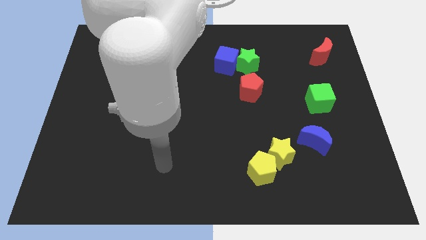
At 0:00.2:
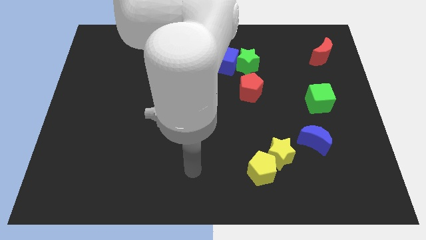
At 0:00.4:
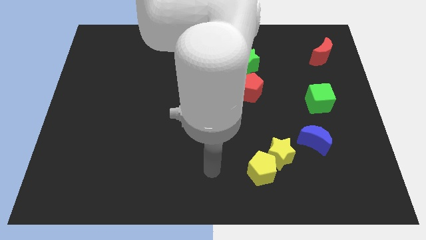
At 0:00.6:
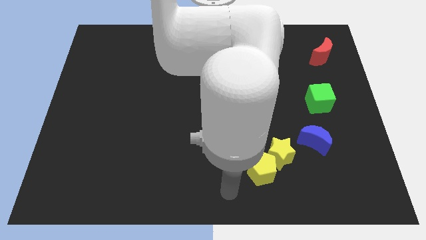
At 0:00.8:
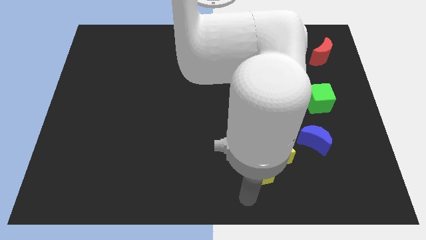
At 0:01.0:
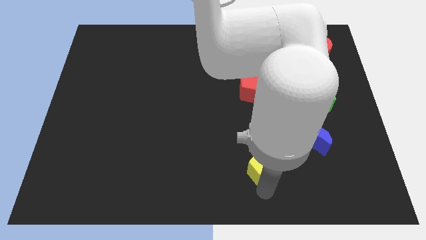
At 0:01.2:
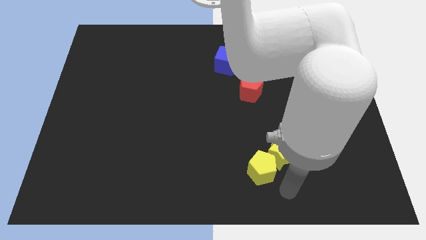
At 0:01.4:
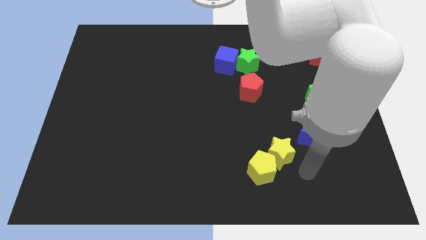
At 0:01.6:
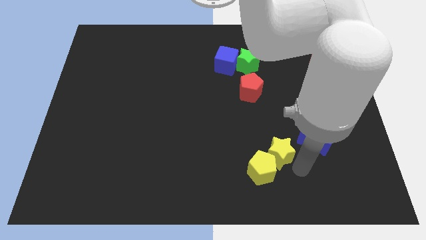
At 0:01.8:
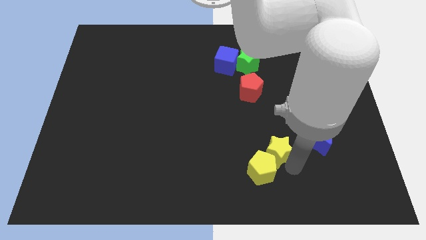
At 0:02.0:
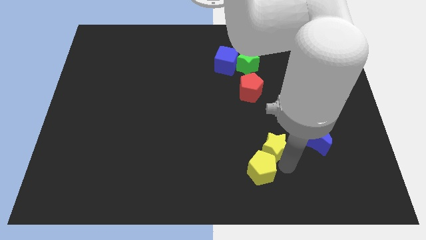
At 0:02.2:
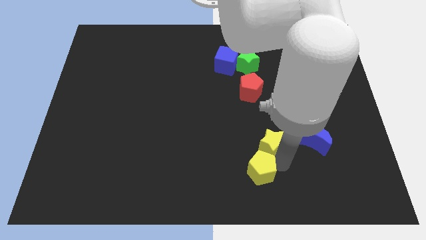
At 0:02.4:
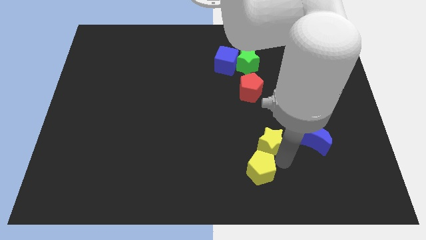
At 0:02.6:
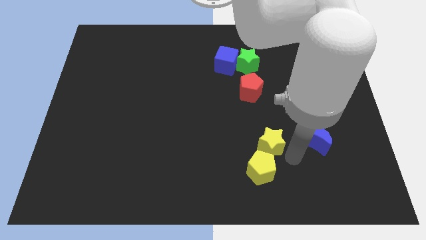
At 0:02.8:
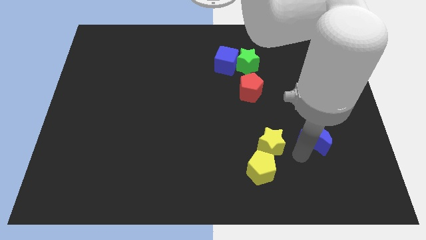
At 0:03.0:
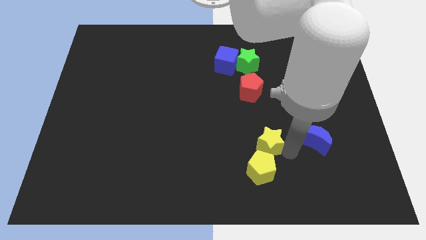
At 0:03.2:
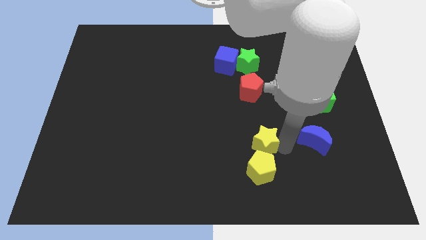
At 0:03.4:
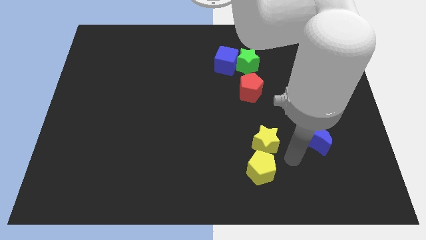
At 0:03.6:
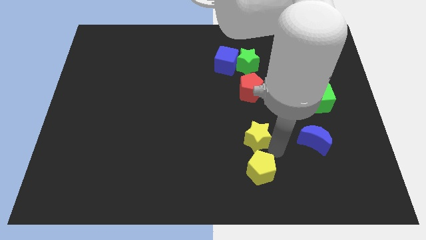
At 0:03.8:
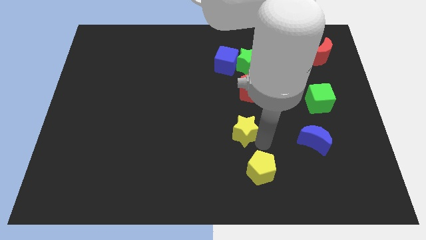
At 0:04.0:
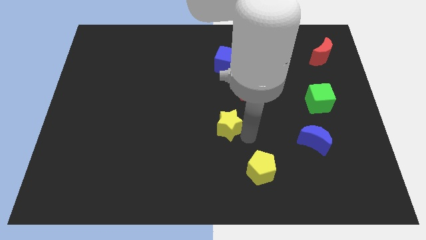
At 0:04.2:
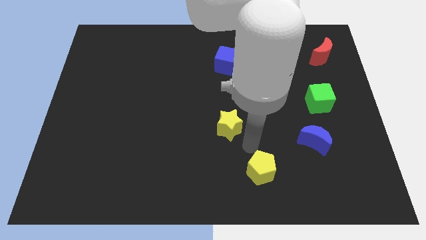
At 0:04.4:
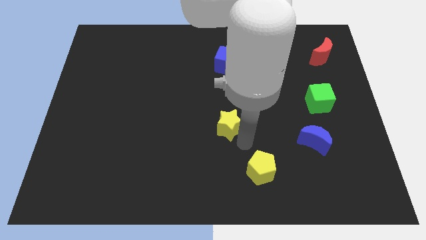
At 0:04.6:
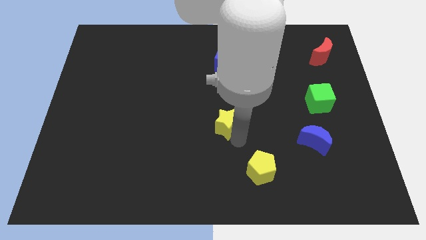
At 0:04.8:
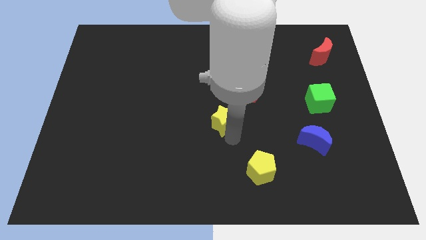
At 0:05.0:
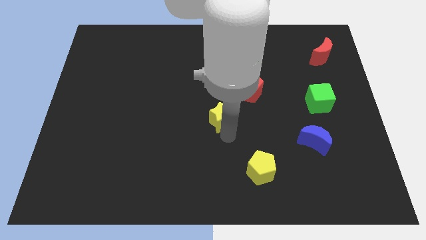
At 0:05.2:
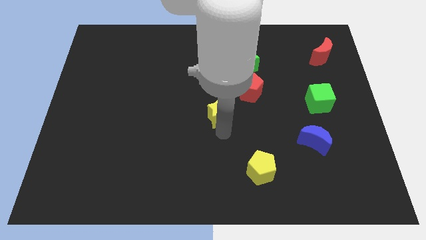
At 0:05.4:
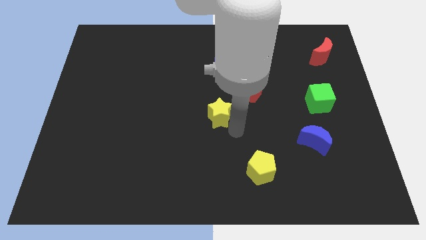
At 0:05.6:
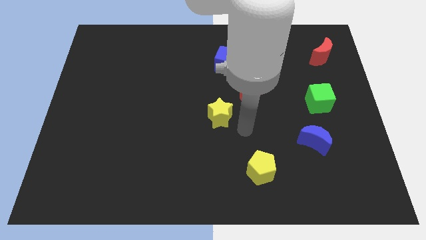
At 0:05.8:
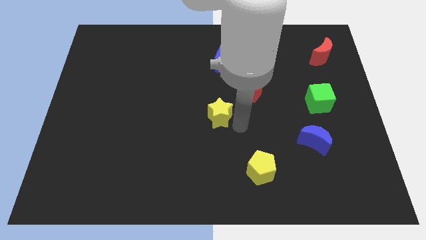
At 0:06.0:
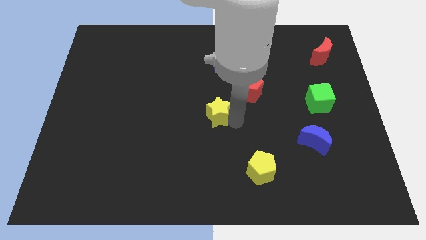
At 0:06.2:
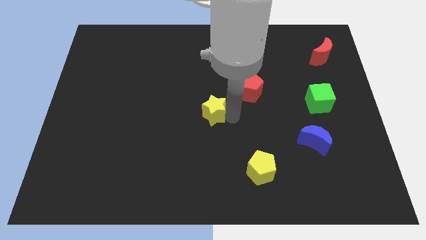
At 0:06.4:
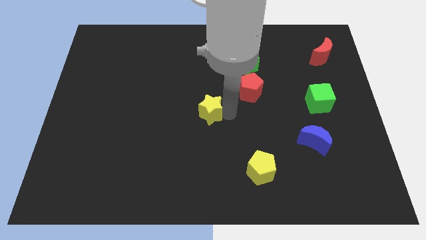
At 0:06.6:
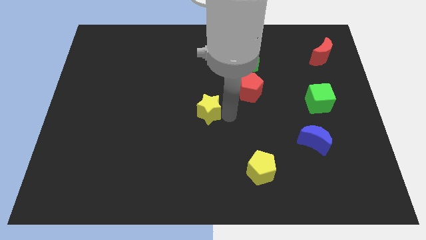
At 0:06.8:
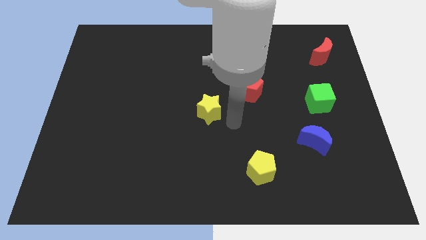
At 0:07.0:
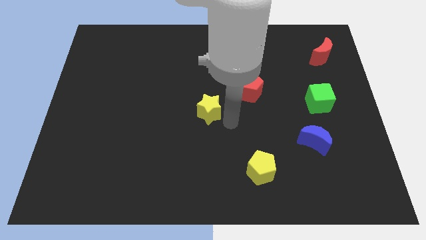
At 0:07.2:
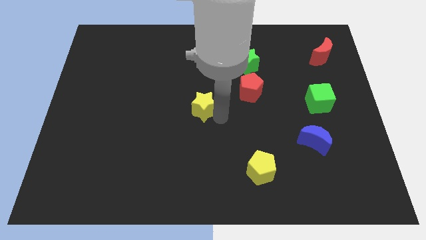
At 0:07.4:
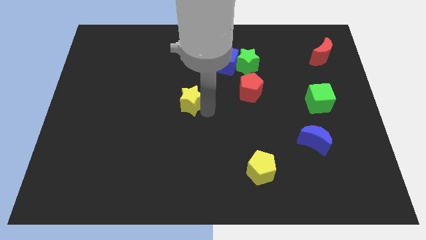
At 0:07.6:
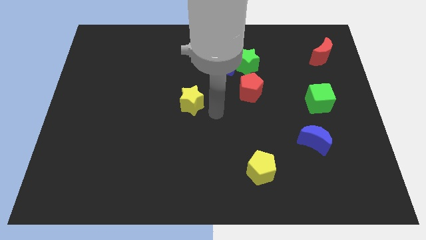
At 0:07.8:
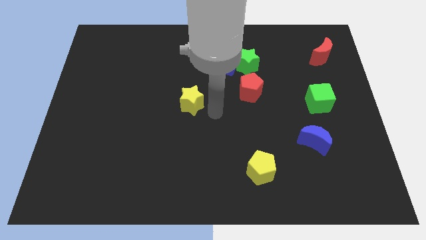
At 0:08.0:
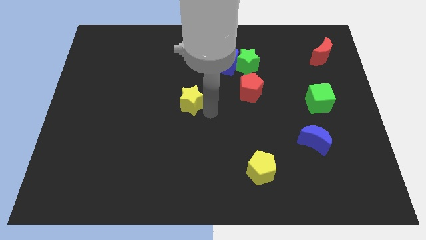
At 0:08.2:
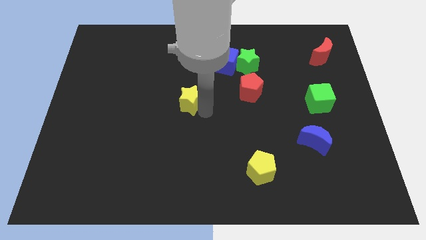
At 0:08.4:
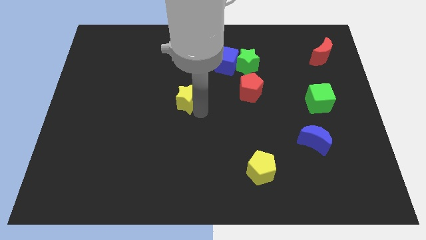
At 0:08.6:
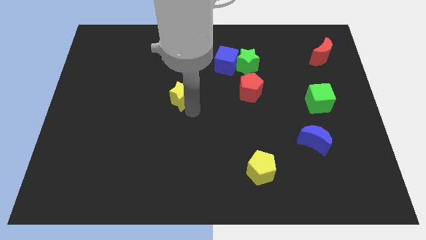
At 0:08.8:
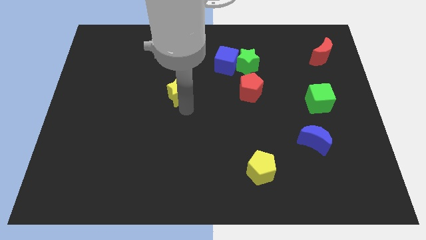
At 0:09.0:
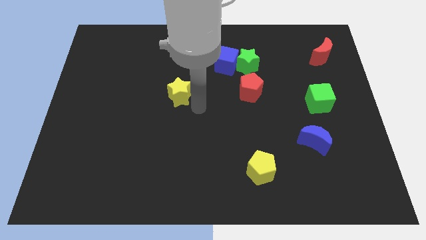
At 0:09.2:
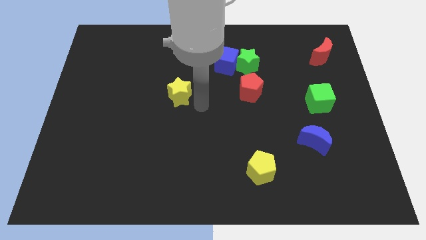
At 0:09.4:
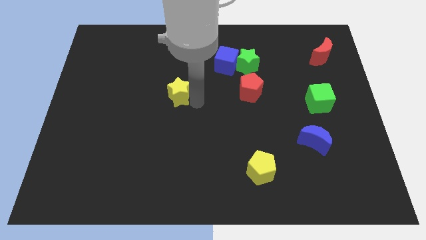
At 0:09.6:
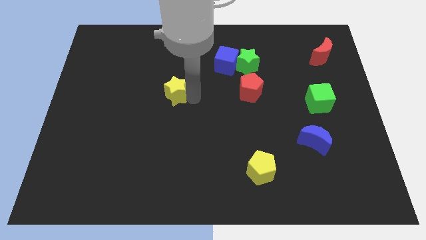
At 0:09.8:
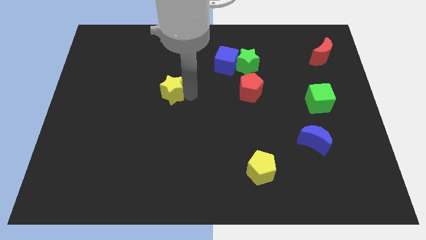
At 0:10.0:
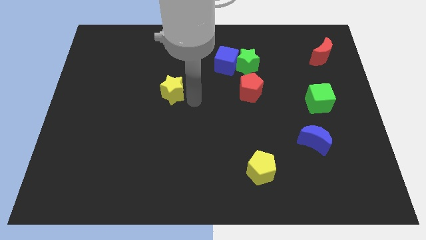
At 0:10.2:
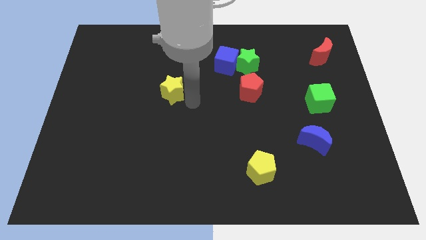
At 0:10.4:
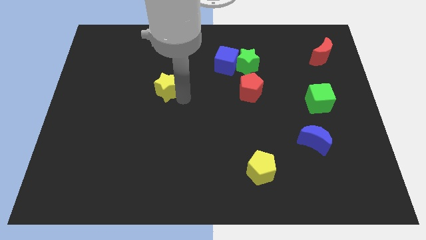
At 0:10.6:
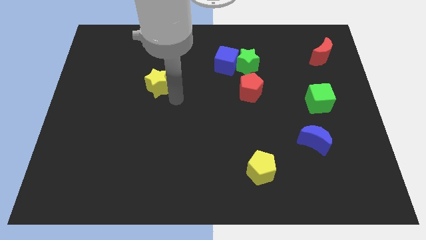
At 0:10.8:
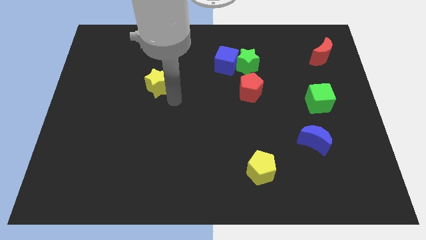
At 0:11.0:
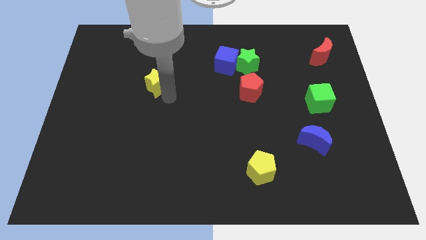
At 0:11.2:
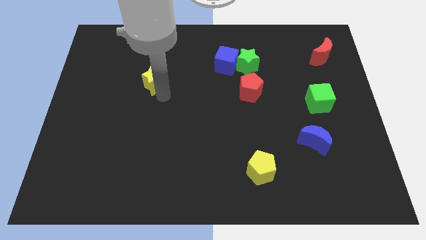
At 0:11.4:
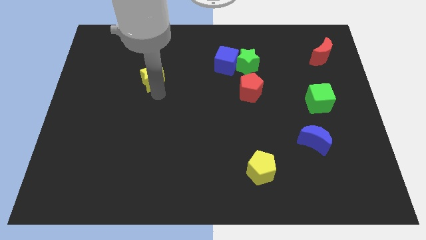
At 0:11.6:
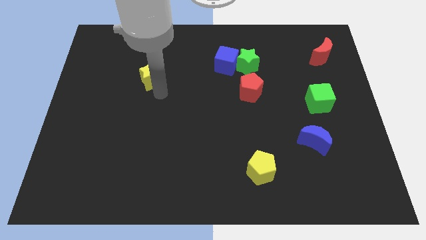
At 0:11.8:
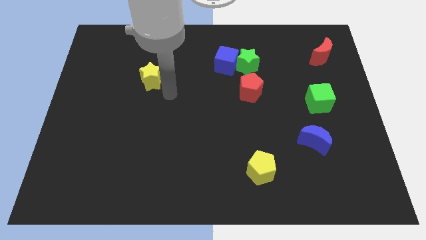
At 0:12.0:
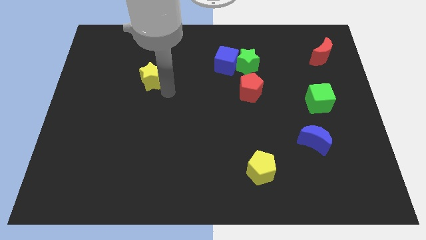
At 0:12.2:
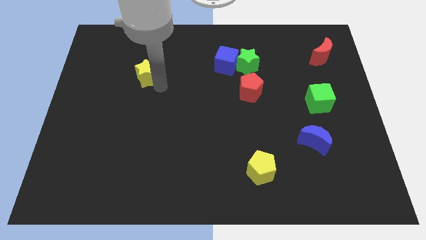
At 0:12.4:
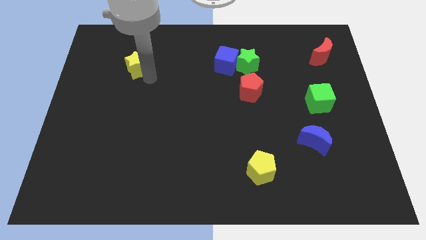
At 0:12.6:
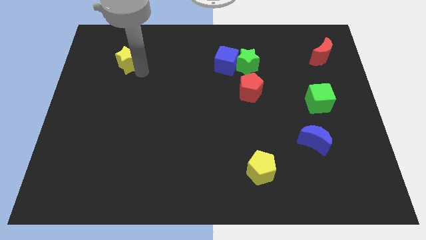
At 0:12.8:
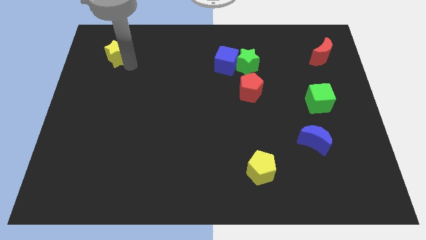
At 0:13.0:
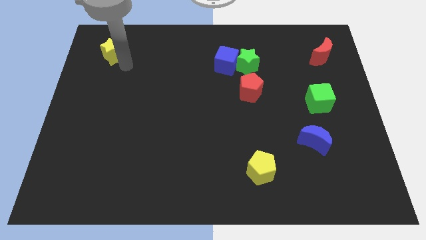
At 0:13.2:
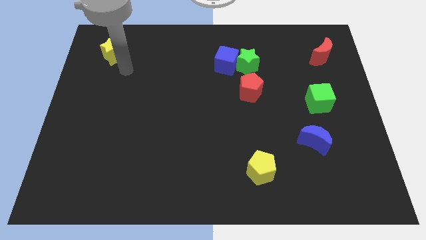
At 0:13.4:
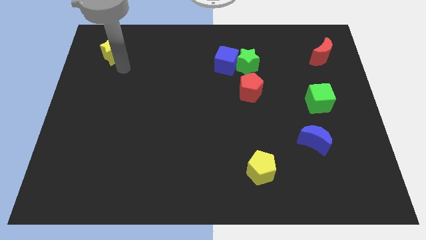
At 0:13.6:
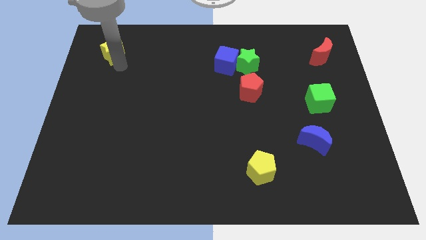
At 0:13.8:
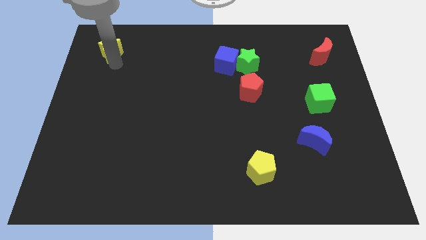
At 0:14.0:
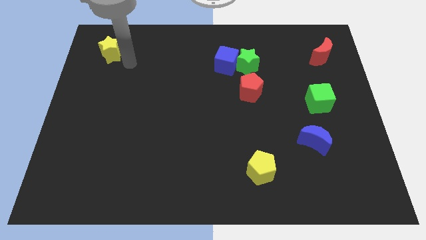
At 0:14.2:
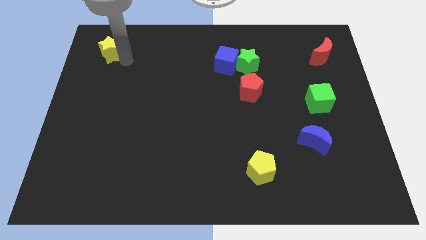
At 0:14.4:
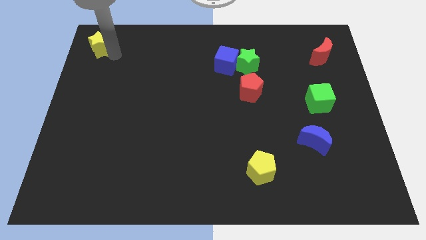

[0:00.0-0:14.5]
slide the yellow star to the upper left corner
